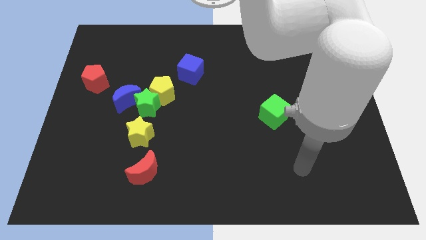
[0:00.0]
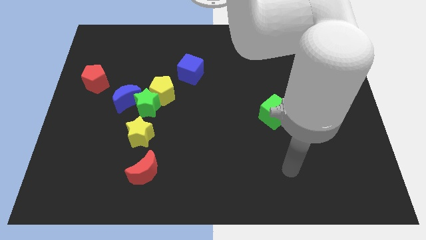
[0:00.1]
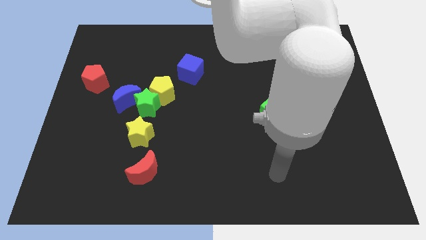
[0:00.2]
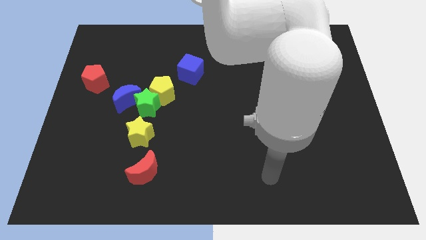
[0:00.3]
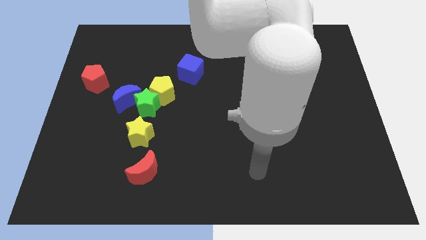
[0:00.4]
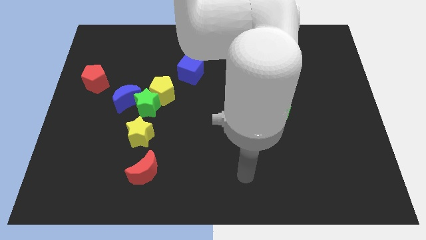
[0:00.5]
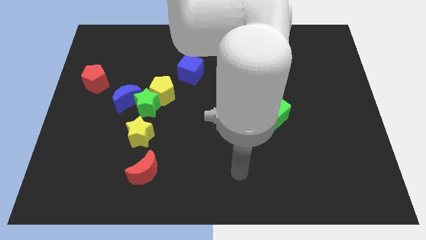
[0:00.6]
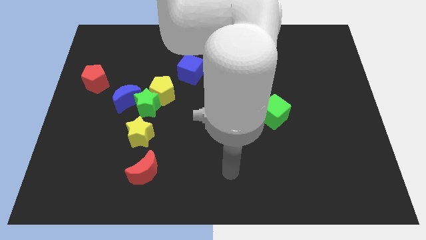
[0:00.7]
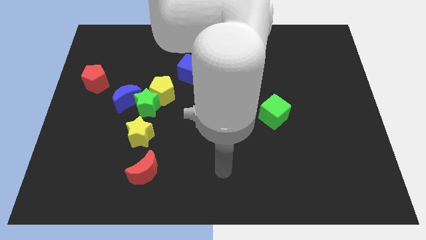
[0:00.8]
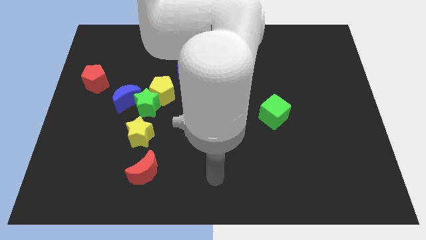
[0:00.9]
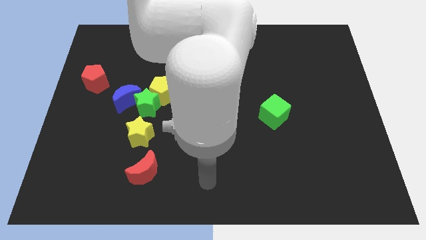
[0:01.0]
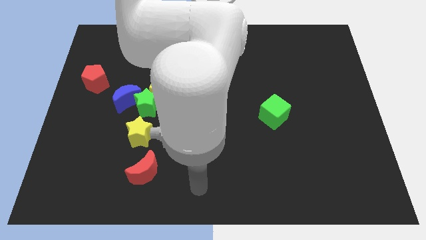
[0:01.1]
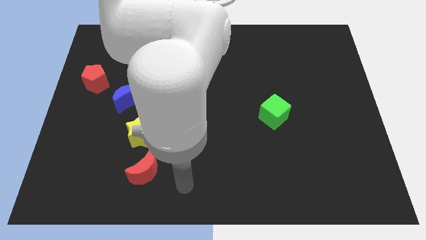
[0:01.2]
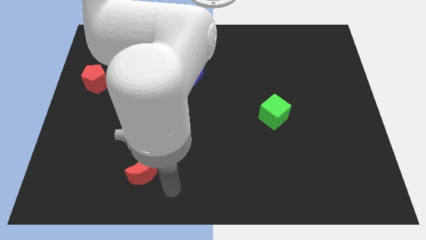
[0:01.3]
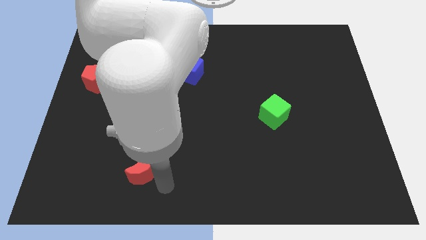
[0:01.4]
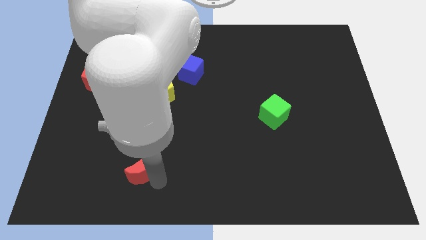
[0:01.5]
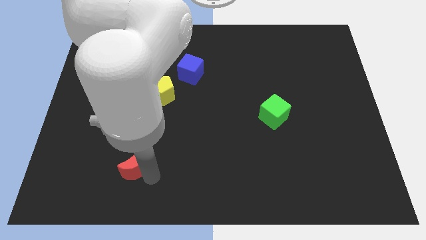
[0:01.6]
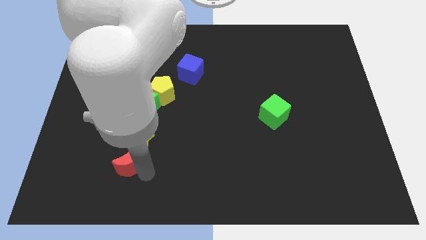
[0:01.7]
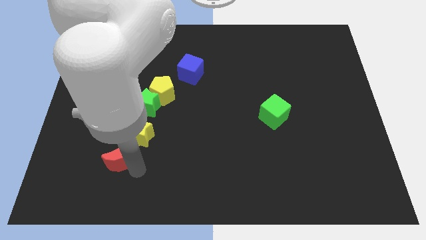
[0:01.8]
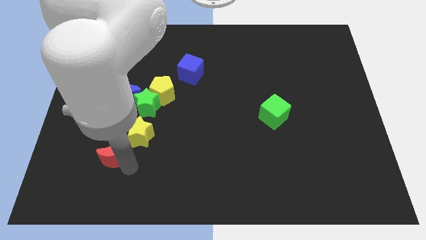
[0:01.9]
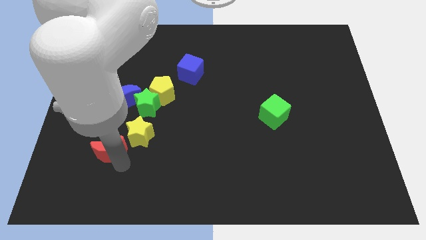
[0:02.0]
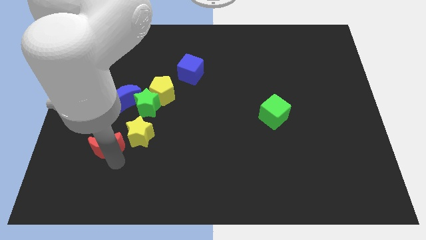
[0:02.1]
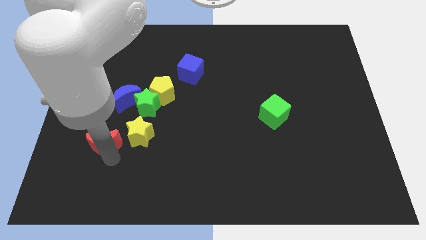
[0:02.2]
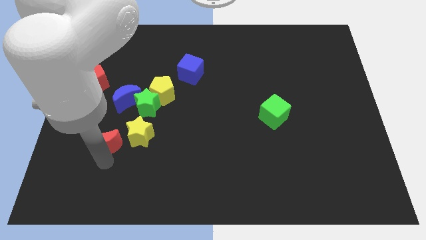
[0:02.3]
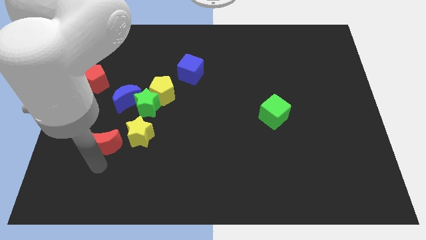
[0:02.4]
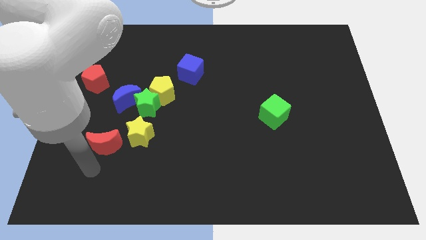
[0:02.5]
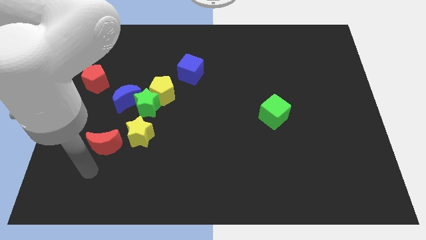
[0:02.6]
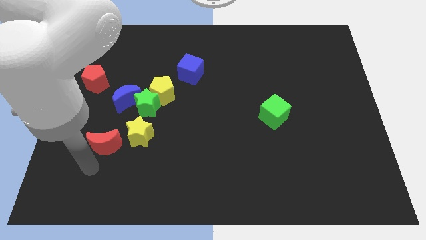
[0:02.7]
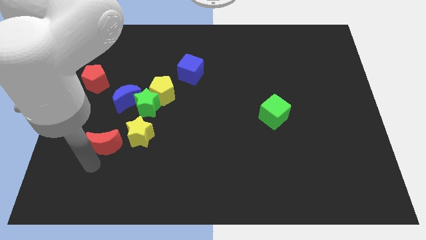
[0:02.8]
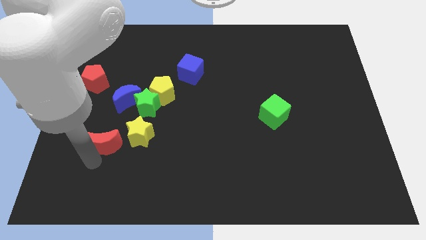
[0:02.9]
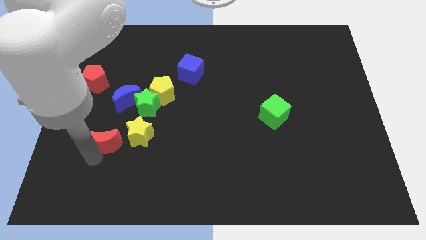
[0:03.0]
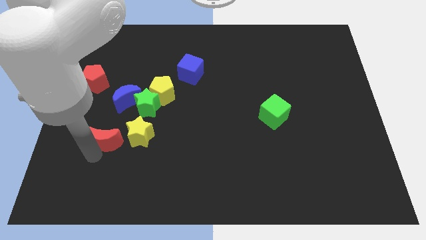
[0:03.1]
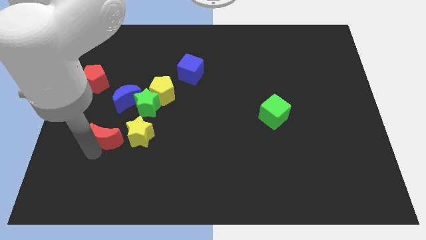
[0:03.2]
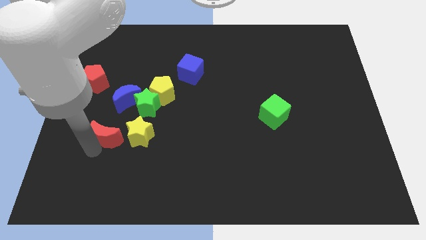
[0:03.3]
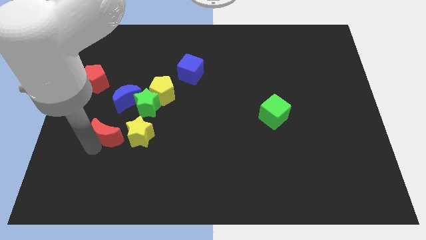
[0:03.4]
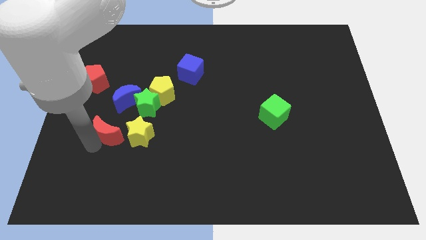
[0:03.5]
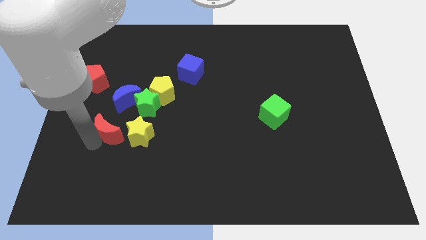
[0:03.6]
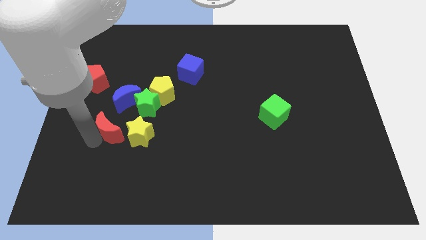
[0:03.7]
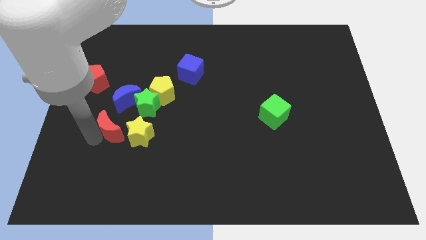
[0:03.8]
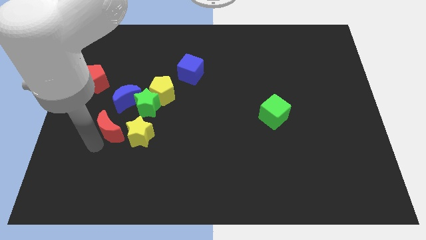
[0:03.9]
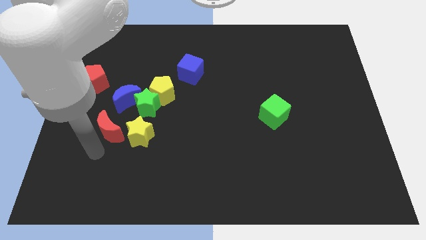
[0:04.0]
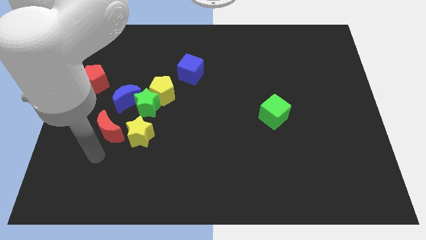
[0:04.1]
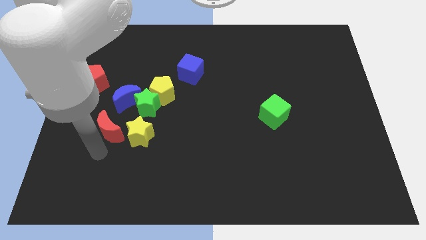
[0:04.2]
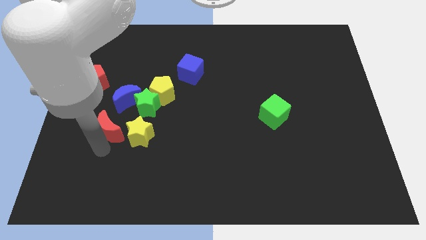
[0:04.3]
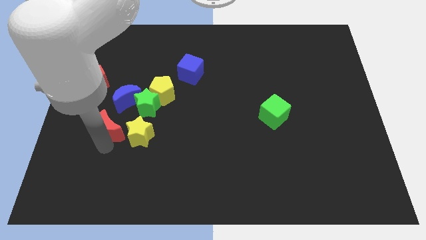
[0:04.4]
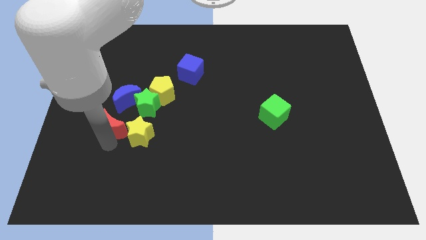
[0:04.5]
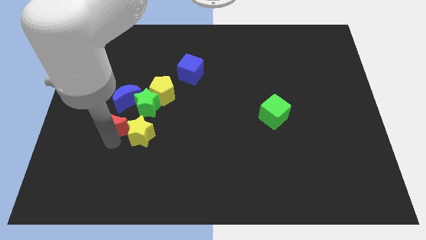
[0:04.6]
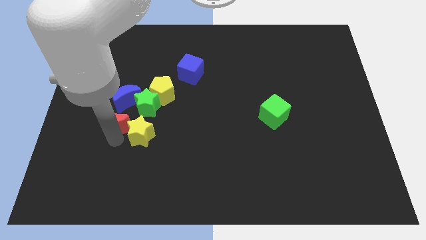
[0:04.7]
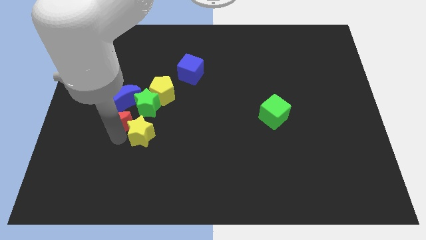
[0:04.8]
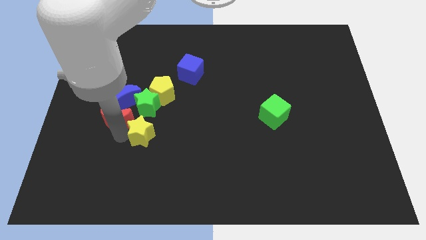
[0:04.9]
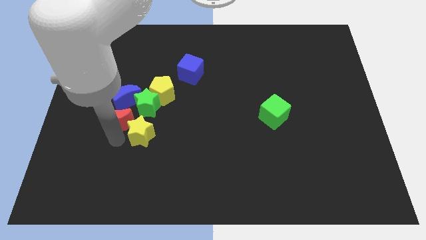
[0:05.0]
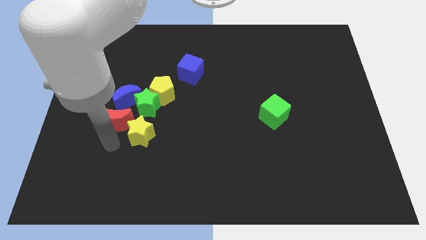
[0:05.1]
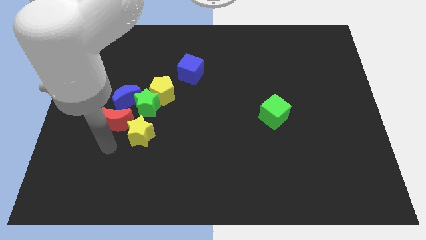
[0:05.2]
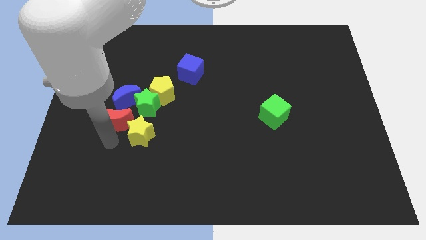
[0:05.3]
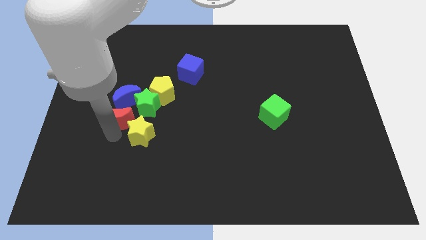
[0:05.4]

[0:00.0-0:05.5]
push the red moon to the blue moon

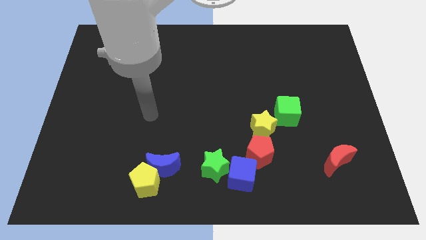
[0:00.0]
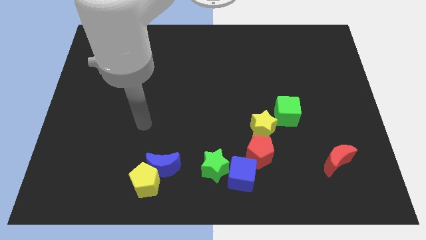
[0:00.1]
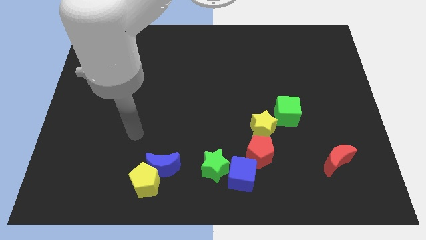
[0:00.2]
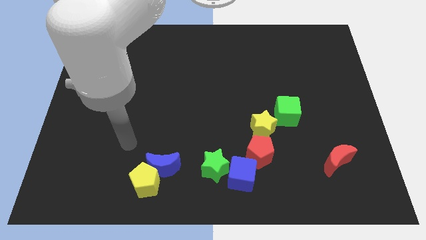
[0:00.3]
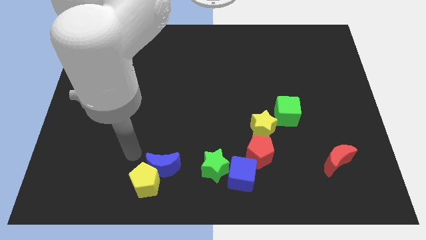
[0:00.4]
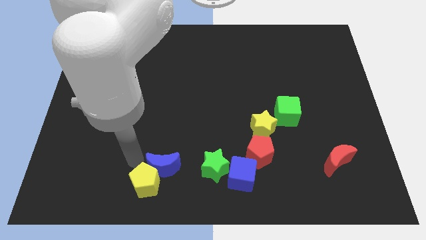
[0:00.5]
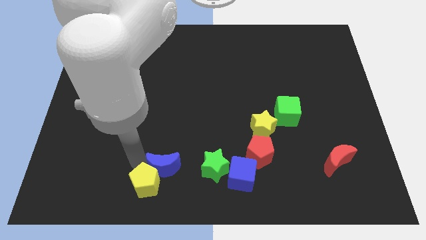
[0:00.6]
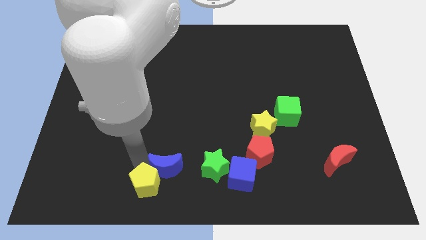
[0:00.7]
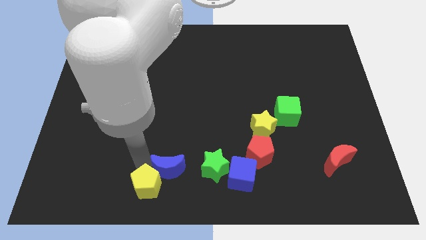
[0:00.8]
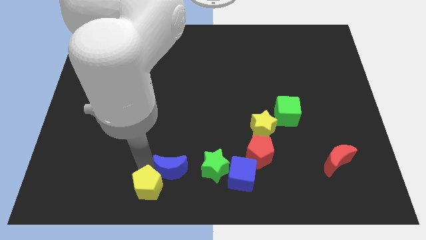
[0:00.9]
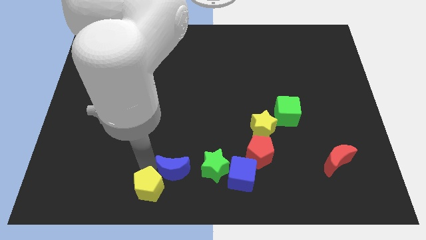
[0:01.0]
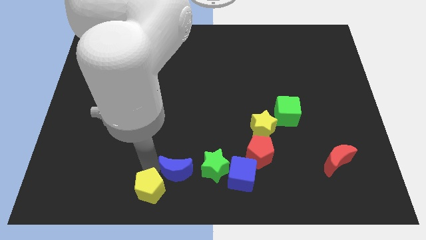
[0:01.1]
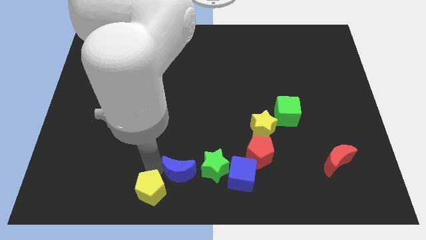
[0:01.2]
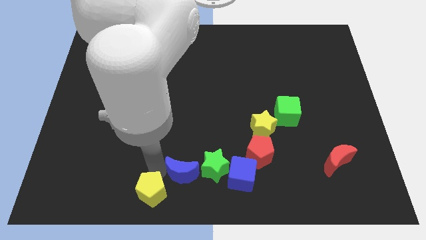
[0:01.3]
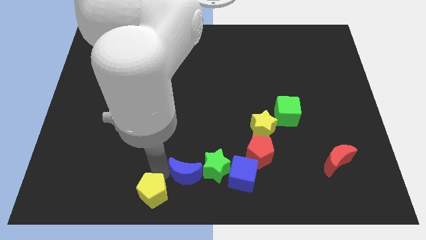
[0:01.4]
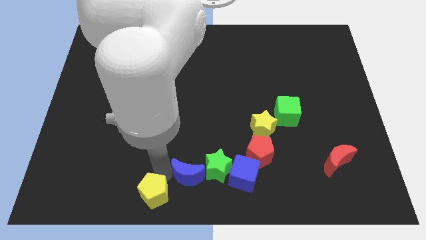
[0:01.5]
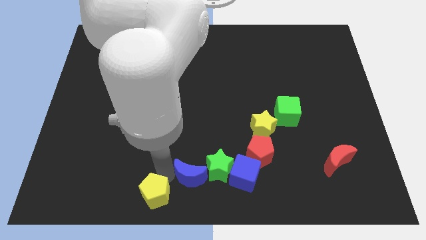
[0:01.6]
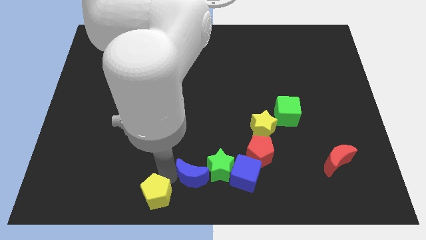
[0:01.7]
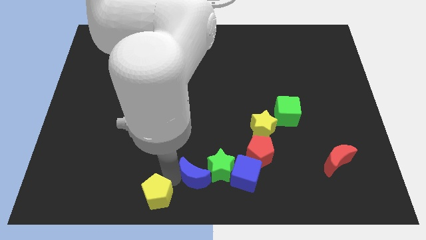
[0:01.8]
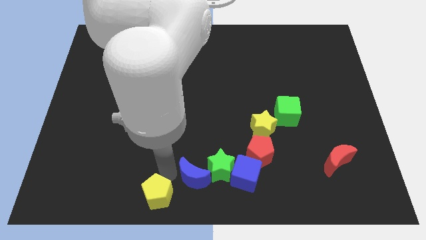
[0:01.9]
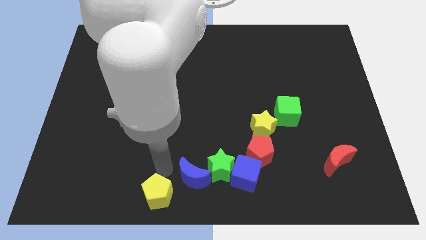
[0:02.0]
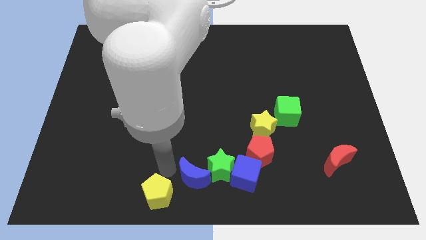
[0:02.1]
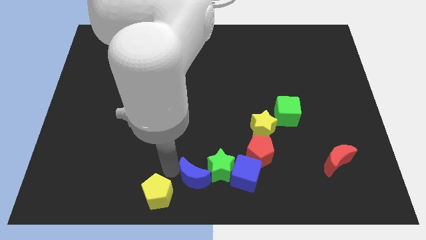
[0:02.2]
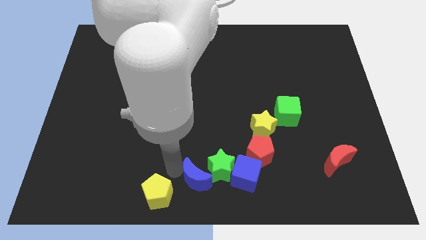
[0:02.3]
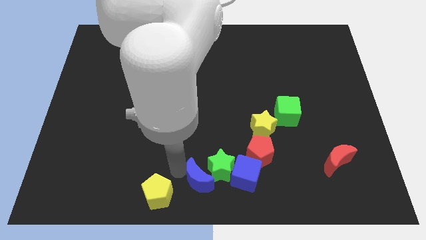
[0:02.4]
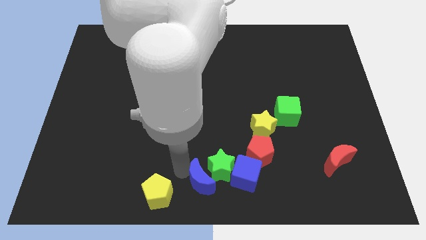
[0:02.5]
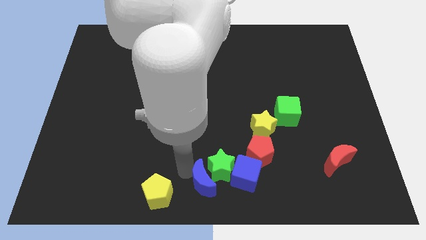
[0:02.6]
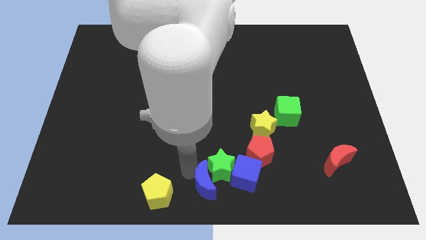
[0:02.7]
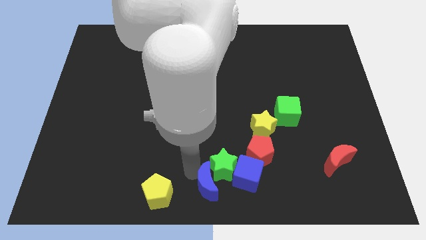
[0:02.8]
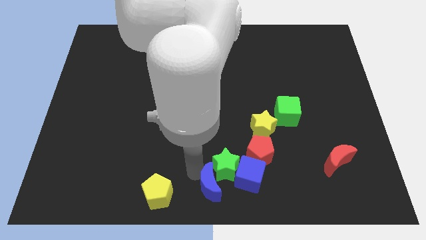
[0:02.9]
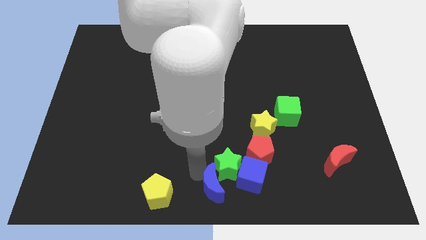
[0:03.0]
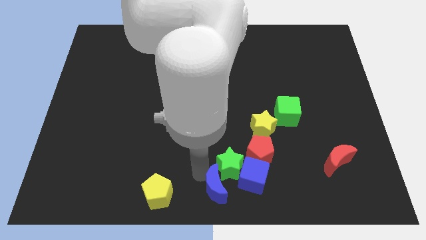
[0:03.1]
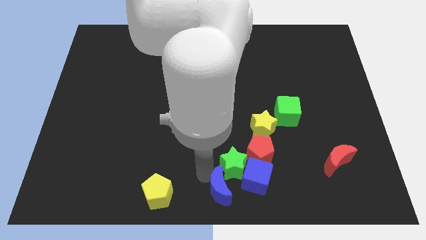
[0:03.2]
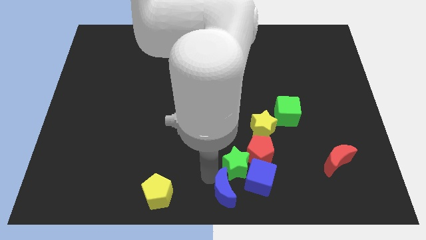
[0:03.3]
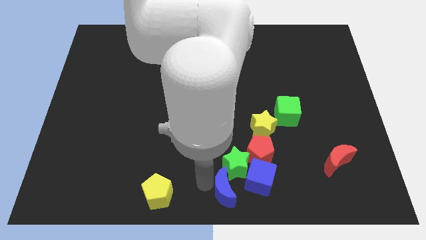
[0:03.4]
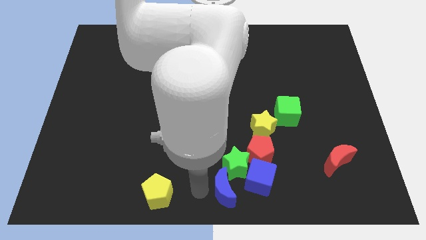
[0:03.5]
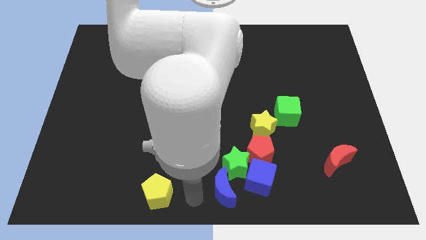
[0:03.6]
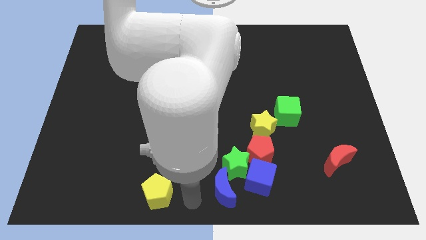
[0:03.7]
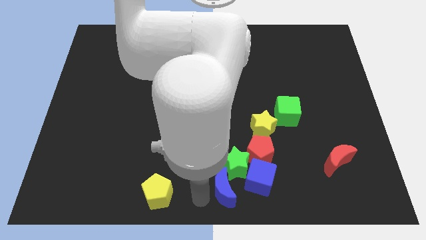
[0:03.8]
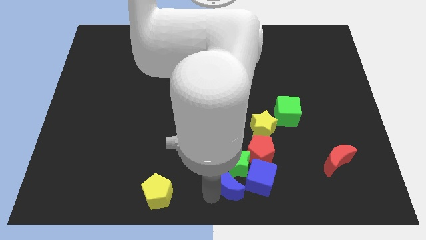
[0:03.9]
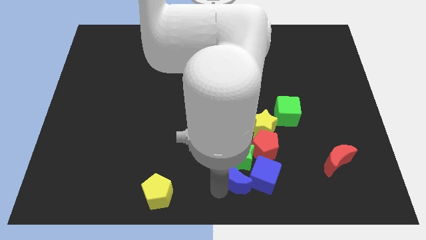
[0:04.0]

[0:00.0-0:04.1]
put the blue moon to the blue cube
